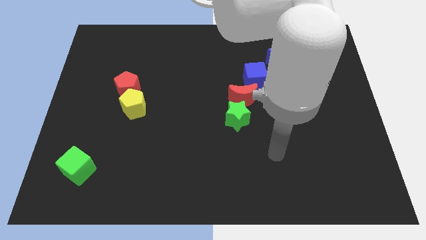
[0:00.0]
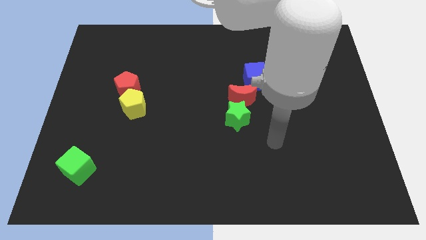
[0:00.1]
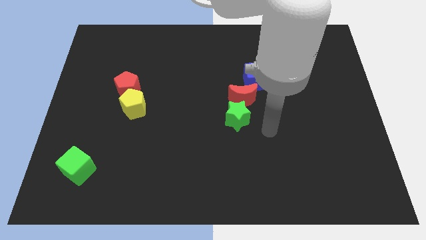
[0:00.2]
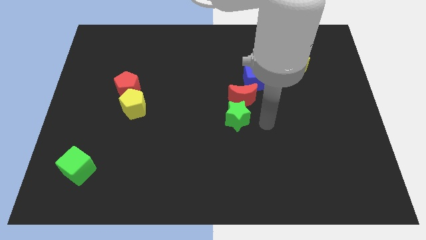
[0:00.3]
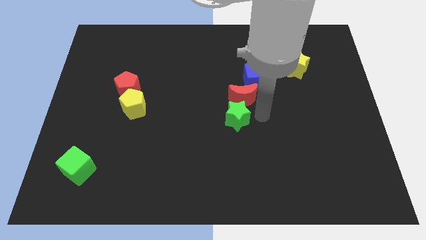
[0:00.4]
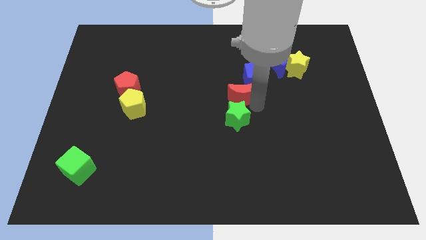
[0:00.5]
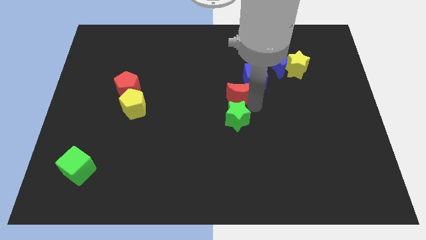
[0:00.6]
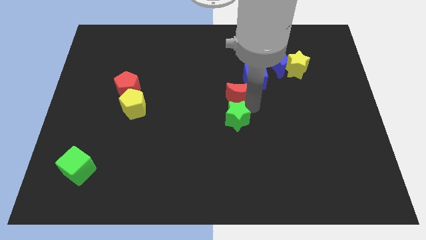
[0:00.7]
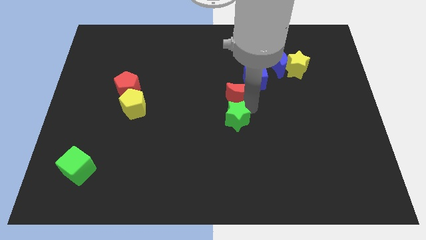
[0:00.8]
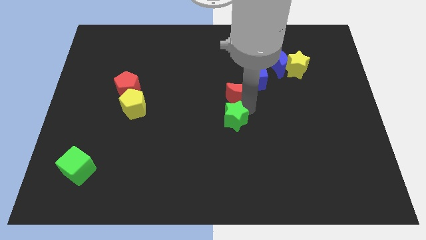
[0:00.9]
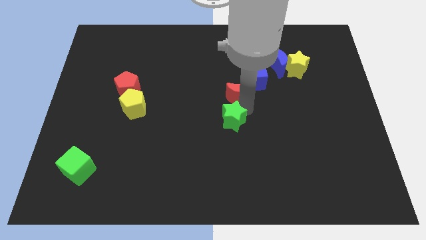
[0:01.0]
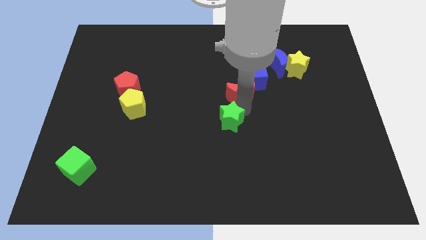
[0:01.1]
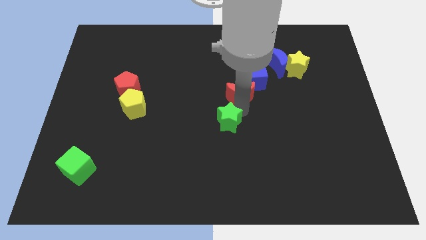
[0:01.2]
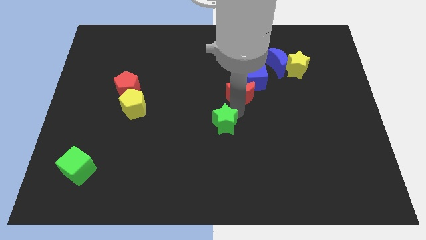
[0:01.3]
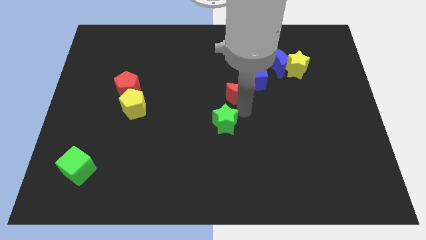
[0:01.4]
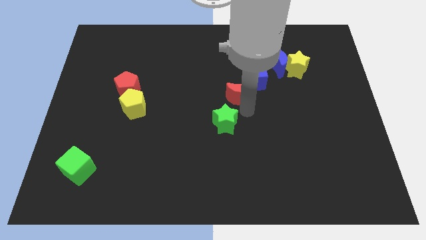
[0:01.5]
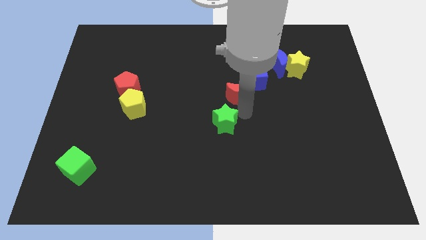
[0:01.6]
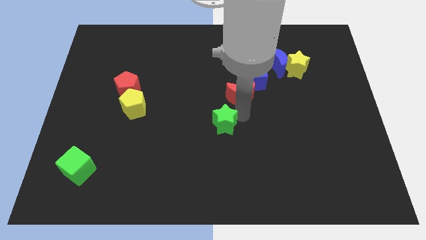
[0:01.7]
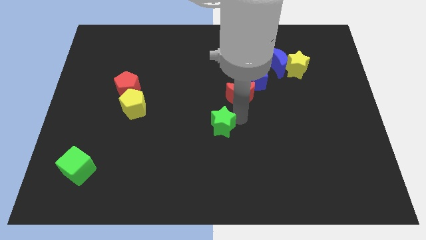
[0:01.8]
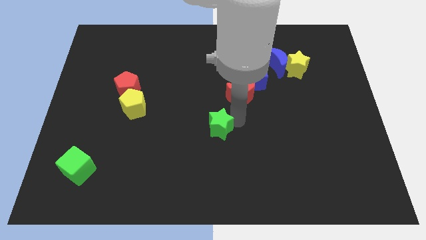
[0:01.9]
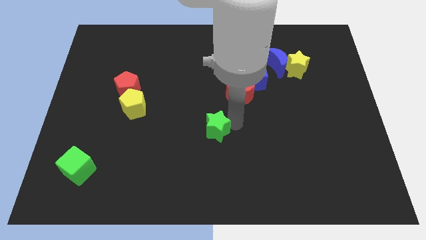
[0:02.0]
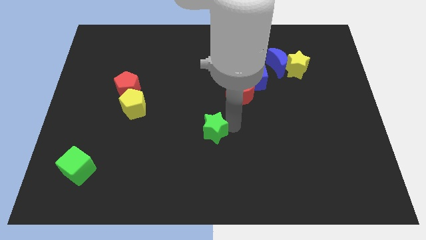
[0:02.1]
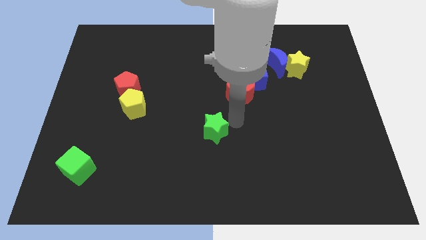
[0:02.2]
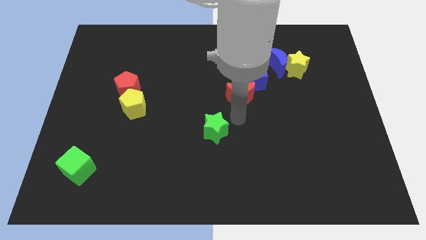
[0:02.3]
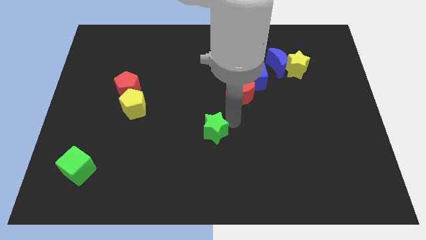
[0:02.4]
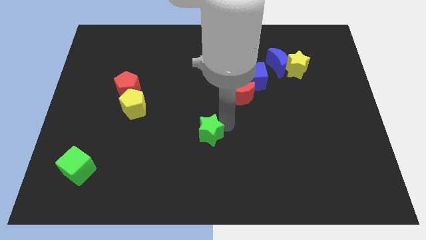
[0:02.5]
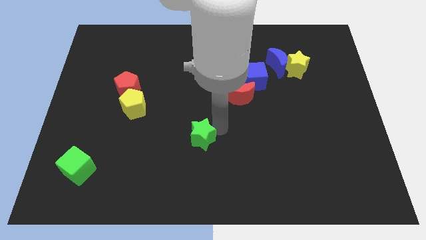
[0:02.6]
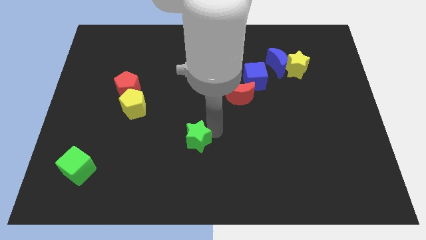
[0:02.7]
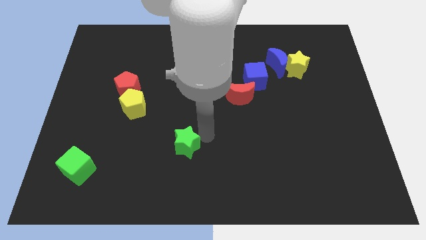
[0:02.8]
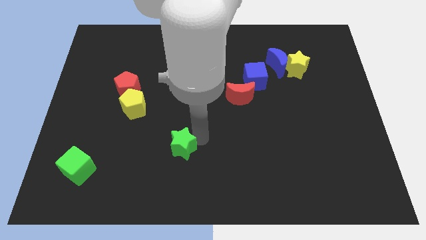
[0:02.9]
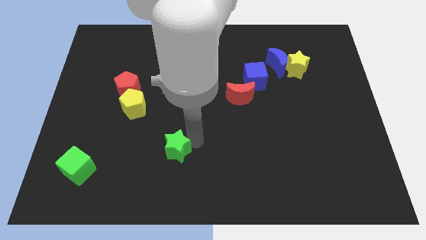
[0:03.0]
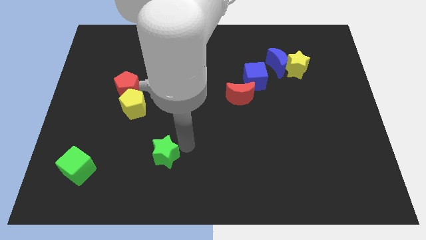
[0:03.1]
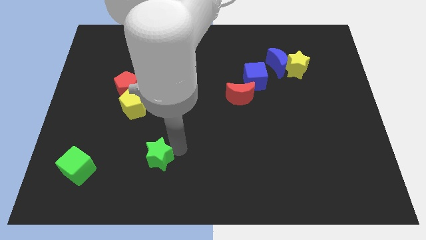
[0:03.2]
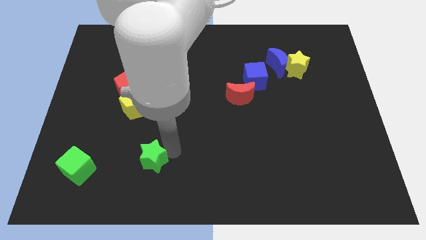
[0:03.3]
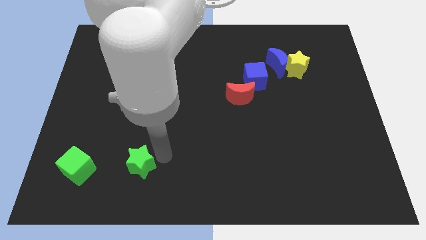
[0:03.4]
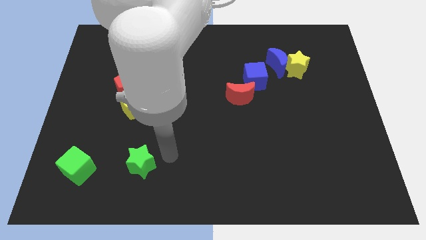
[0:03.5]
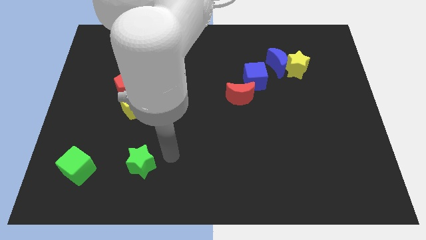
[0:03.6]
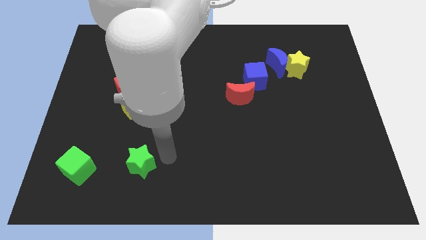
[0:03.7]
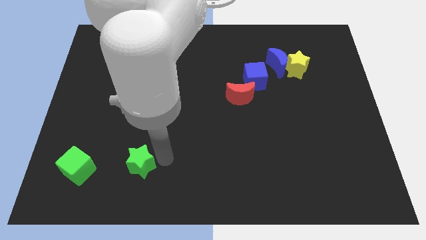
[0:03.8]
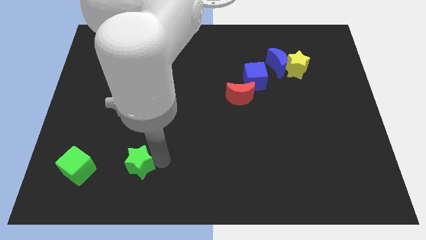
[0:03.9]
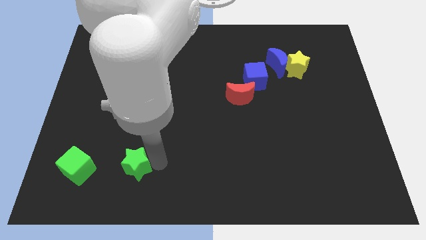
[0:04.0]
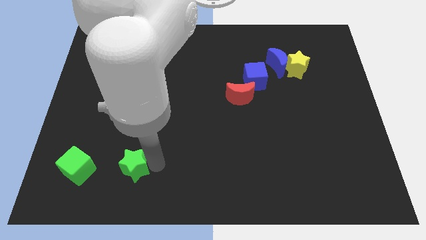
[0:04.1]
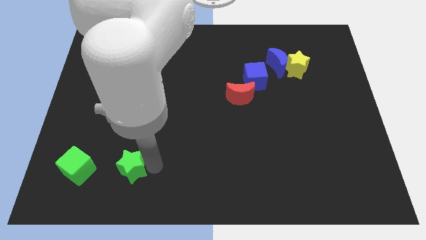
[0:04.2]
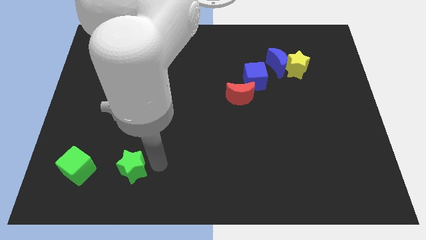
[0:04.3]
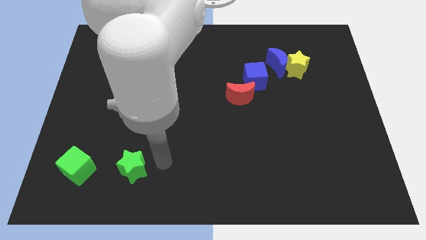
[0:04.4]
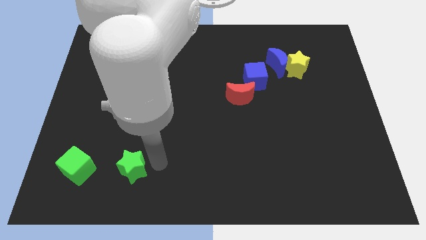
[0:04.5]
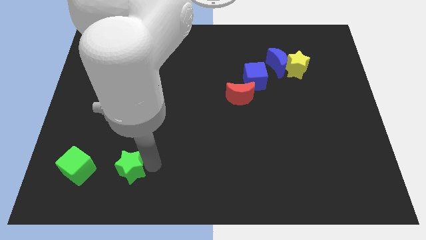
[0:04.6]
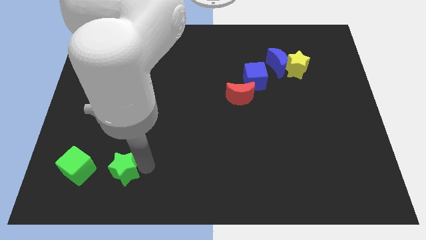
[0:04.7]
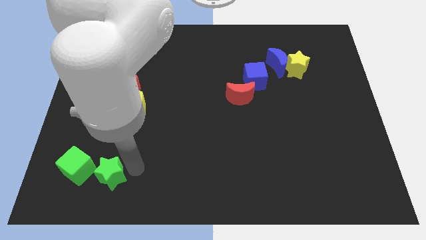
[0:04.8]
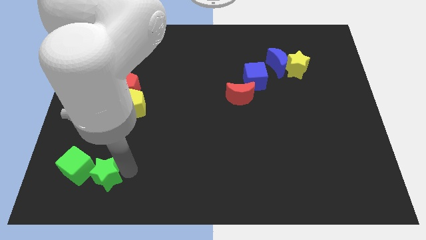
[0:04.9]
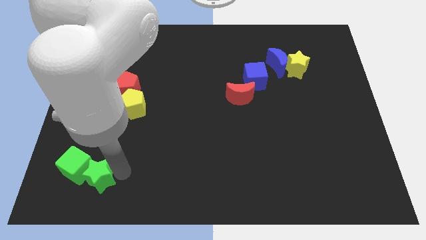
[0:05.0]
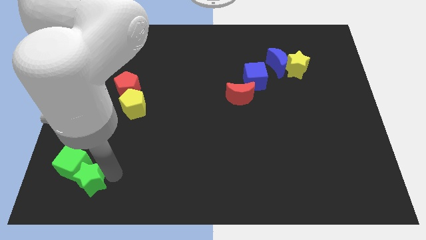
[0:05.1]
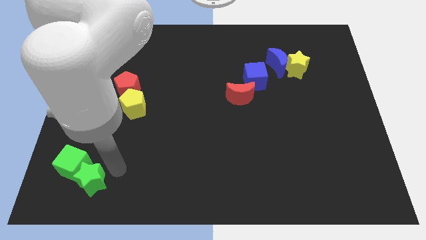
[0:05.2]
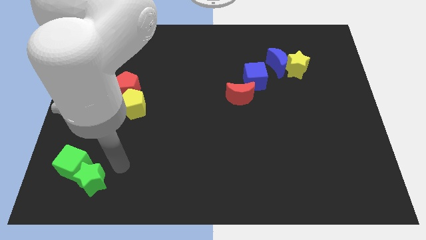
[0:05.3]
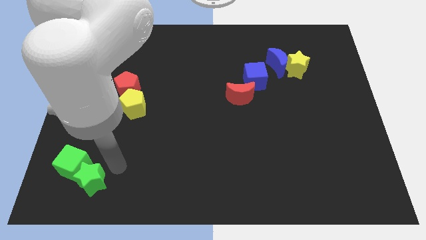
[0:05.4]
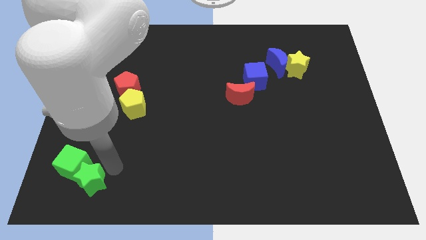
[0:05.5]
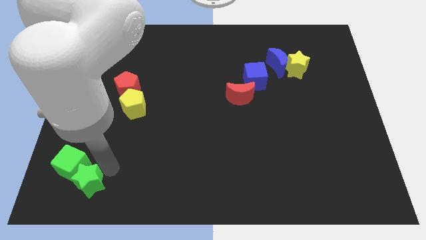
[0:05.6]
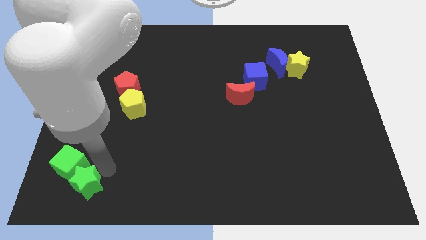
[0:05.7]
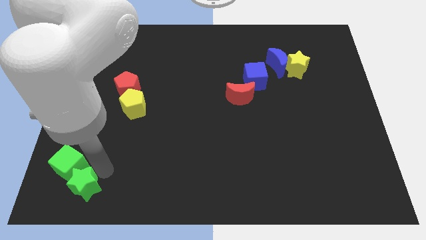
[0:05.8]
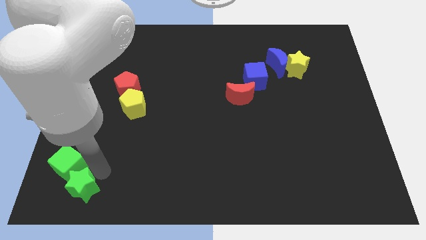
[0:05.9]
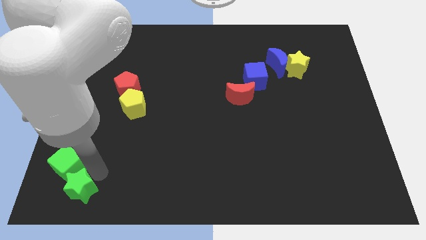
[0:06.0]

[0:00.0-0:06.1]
put the green star to the bottom left corner

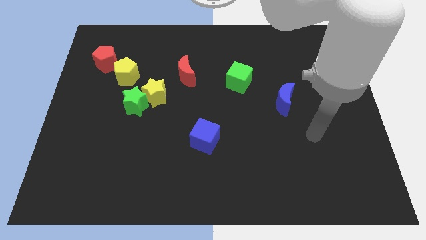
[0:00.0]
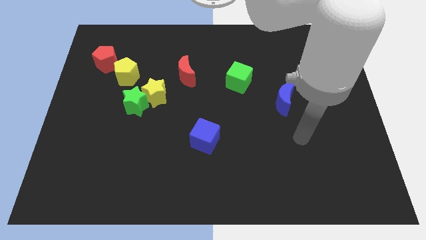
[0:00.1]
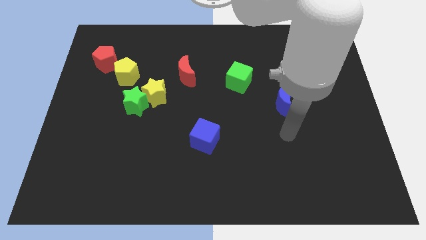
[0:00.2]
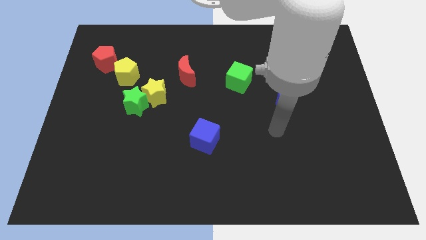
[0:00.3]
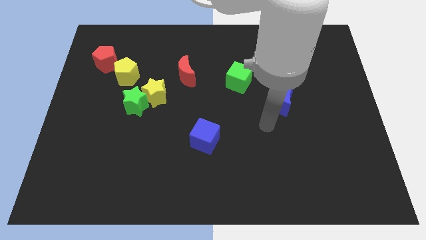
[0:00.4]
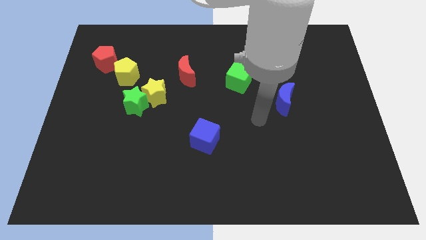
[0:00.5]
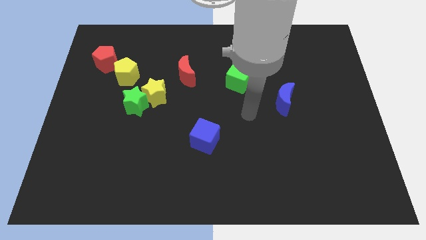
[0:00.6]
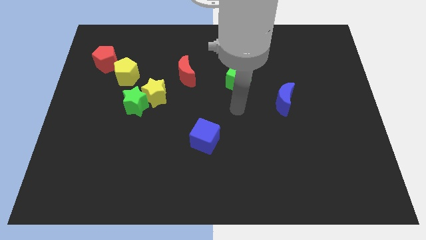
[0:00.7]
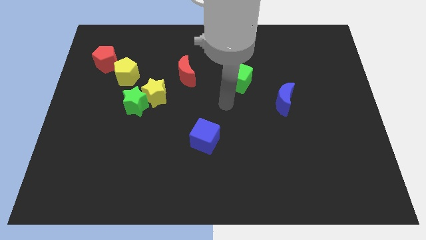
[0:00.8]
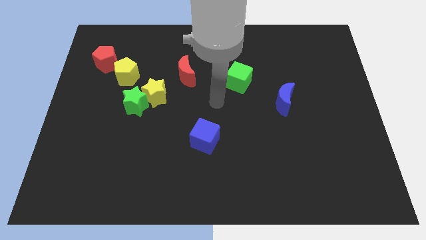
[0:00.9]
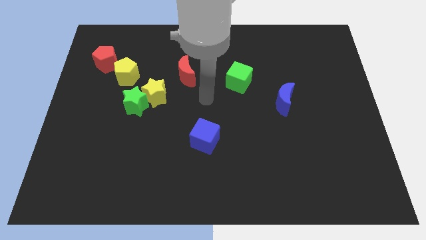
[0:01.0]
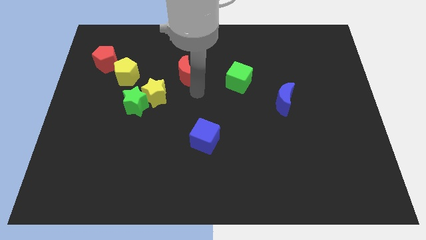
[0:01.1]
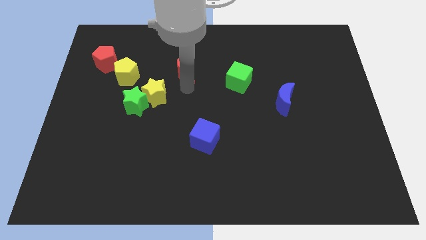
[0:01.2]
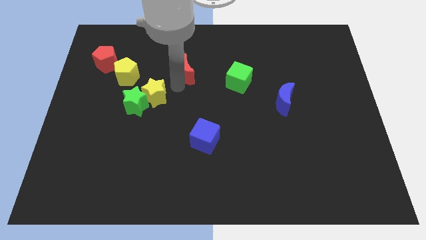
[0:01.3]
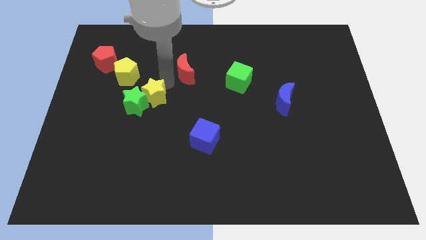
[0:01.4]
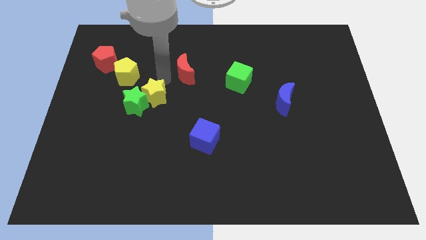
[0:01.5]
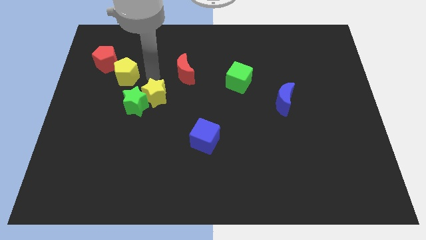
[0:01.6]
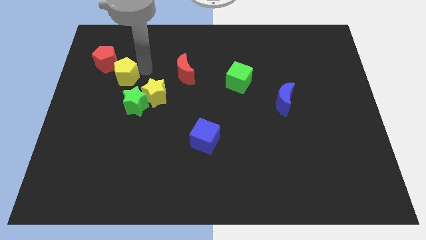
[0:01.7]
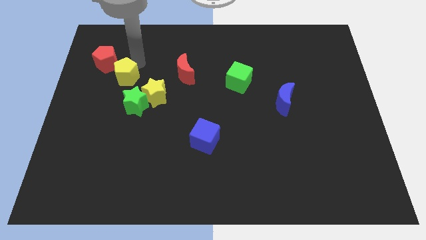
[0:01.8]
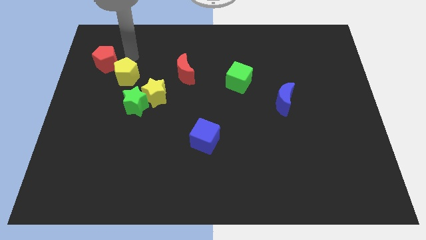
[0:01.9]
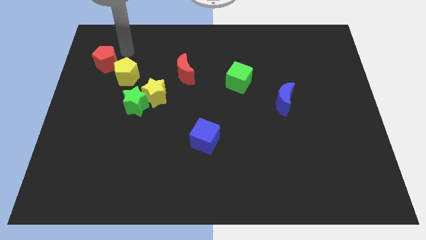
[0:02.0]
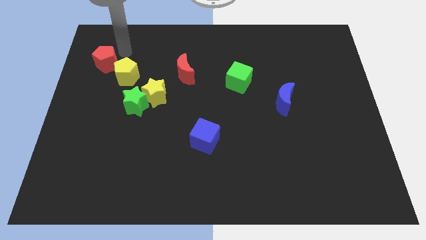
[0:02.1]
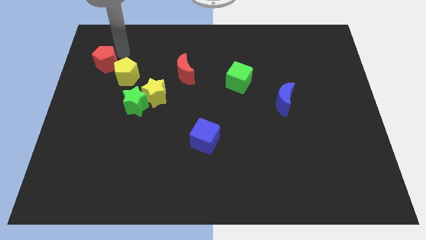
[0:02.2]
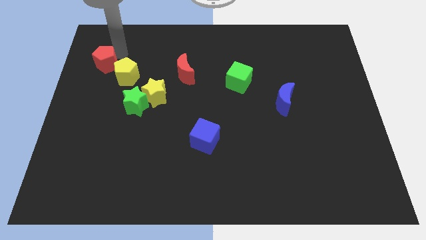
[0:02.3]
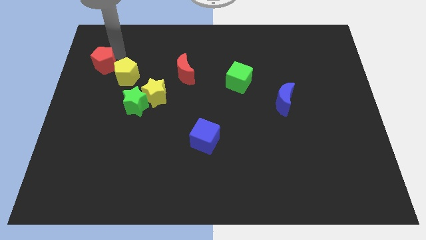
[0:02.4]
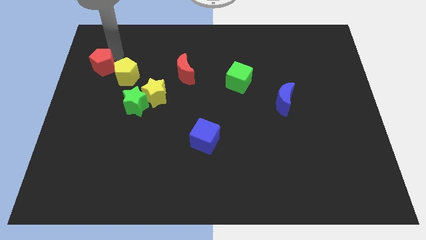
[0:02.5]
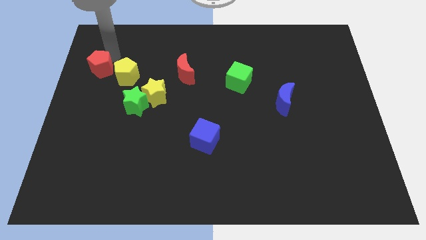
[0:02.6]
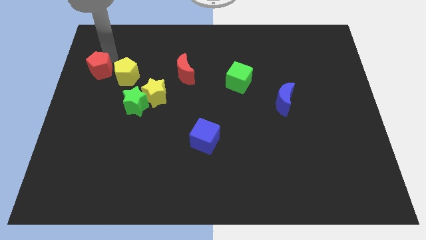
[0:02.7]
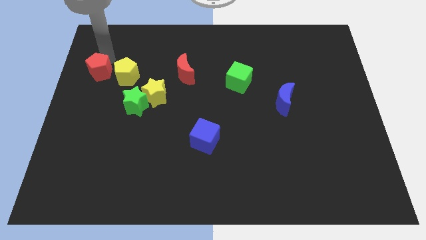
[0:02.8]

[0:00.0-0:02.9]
slide the red pentagon to the center left
